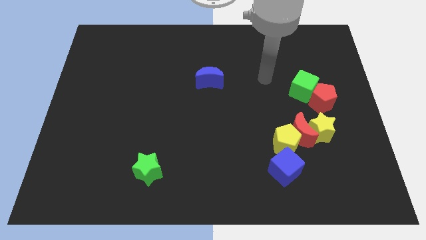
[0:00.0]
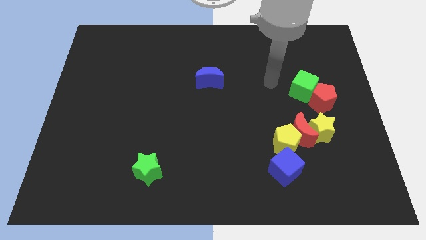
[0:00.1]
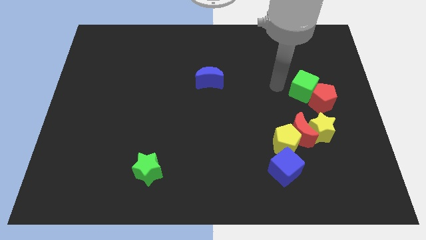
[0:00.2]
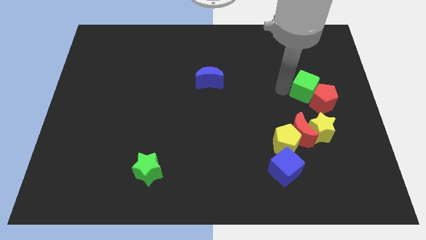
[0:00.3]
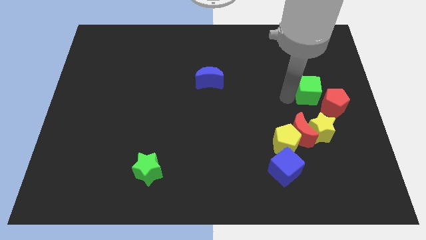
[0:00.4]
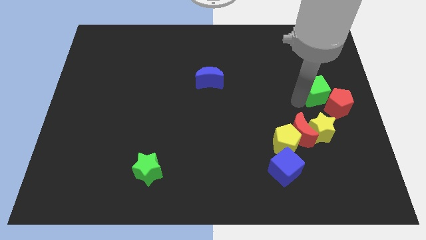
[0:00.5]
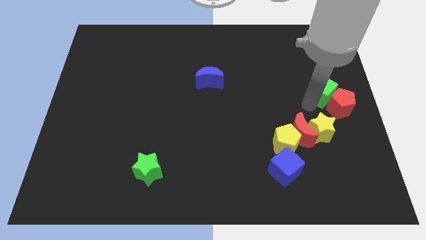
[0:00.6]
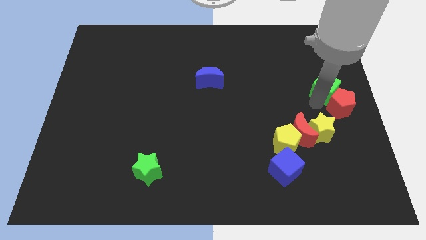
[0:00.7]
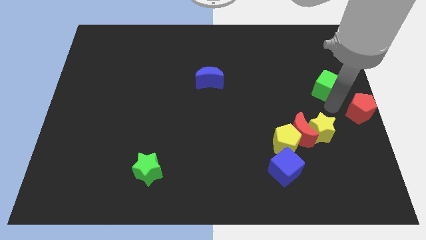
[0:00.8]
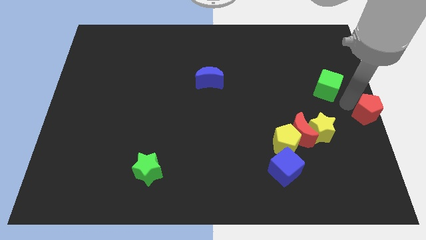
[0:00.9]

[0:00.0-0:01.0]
pull the green cube apart from the red pentagon

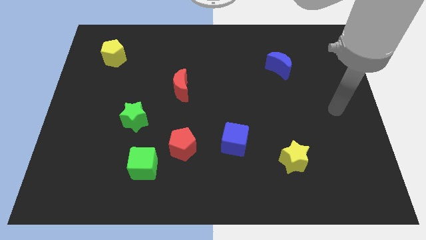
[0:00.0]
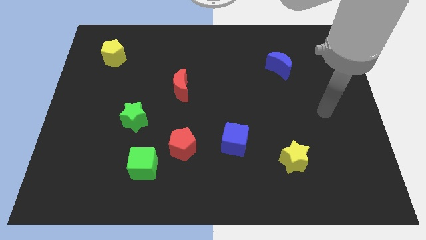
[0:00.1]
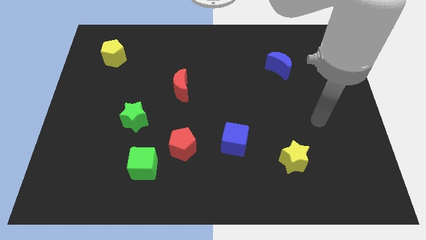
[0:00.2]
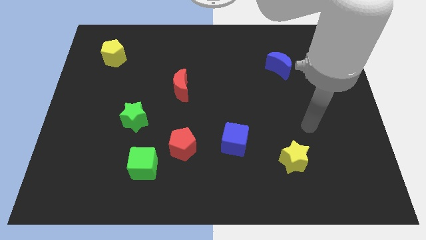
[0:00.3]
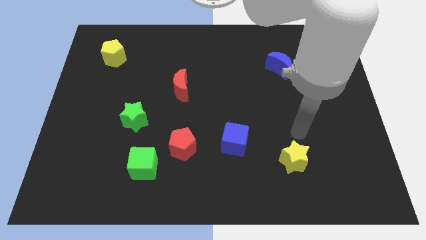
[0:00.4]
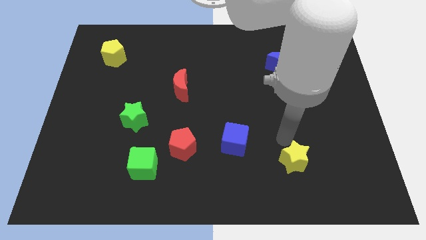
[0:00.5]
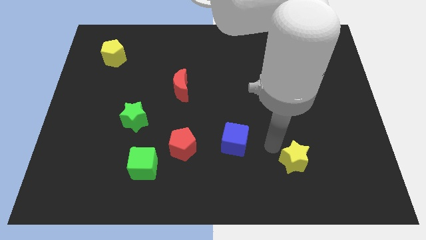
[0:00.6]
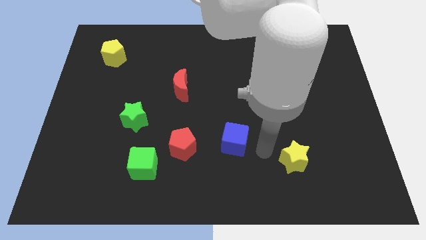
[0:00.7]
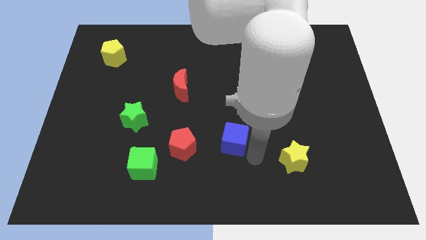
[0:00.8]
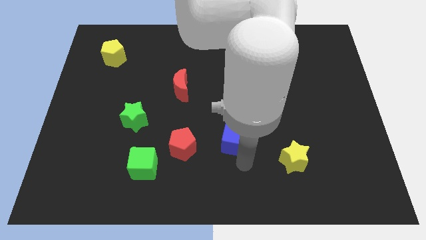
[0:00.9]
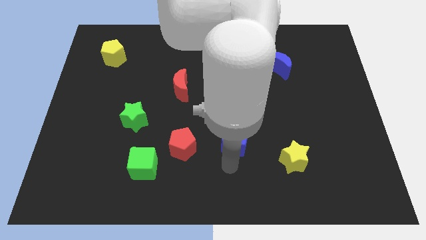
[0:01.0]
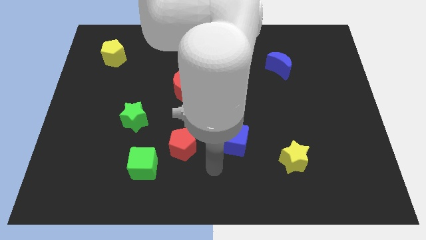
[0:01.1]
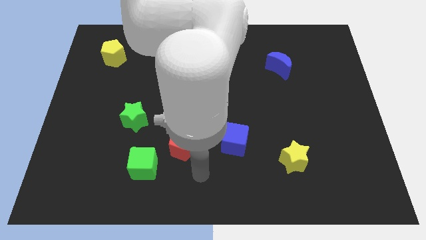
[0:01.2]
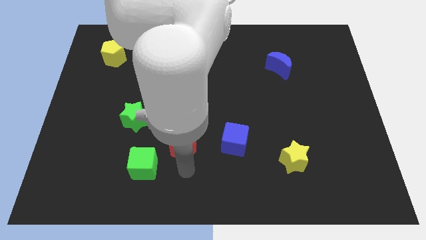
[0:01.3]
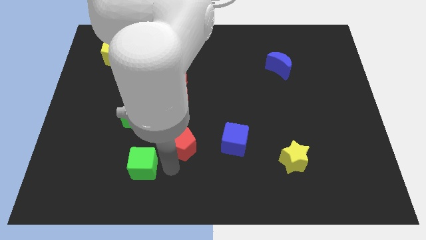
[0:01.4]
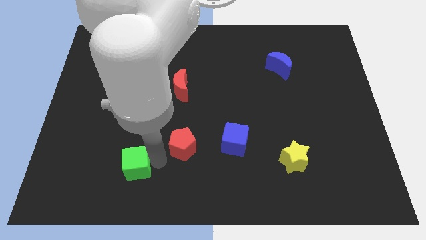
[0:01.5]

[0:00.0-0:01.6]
pull the red pentagon apart from the green cube

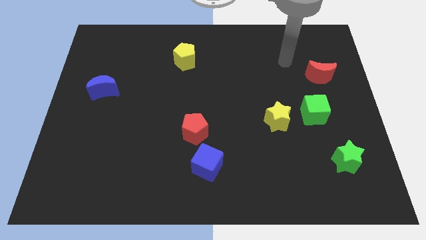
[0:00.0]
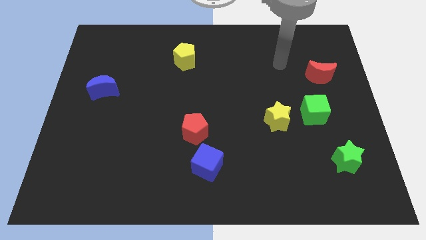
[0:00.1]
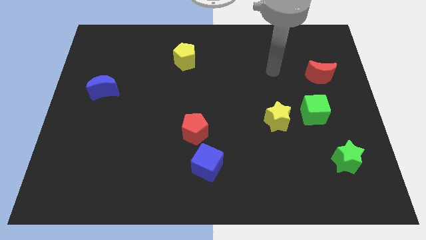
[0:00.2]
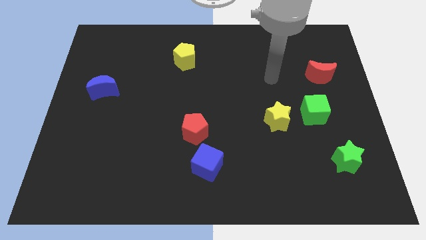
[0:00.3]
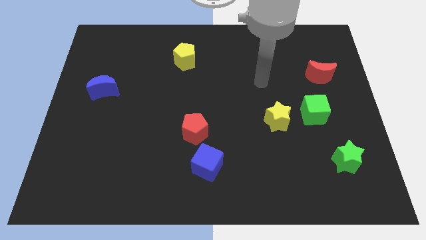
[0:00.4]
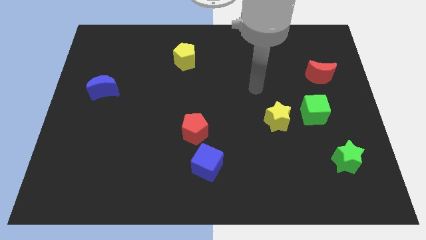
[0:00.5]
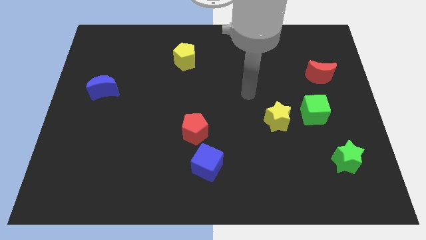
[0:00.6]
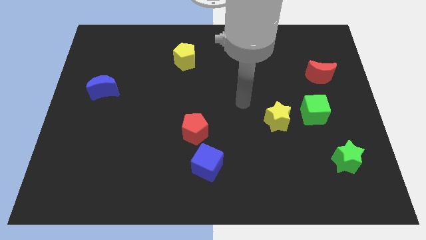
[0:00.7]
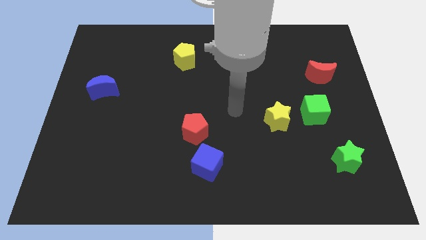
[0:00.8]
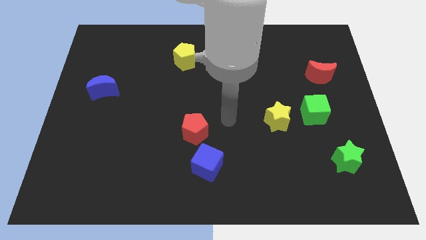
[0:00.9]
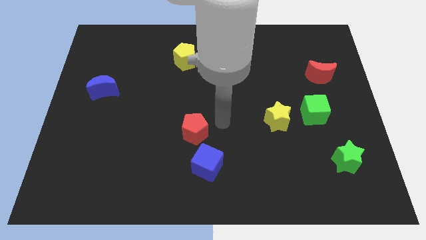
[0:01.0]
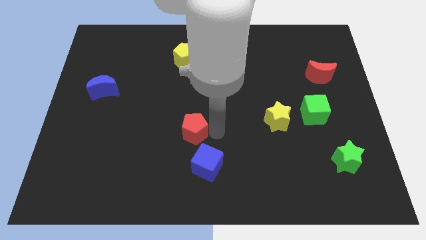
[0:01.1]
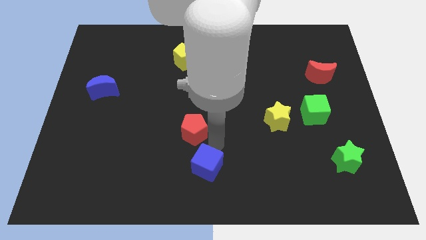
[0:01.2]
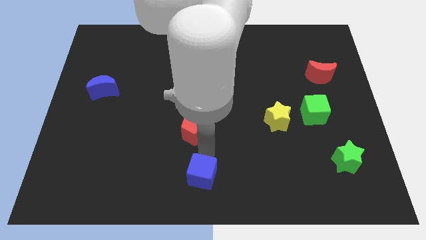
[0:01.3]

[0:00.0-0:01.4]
move the red pentagon away from the blue cube

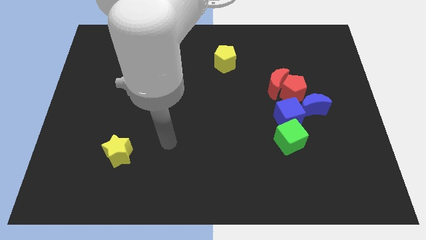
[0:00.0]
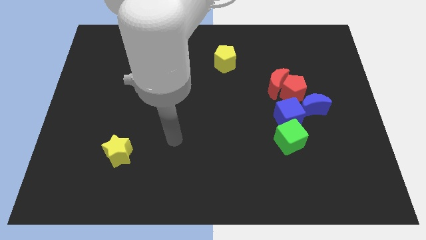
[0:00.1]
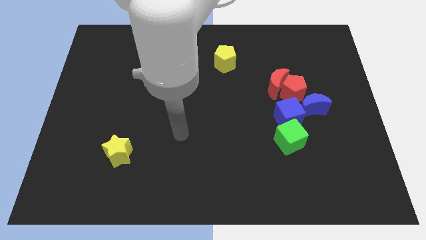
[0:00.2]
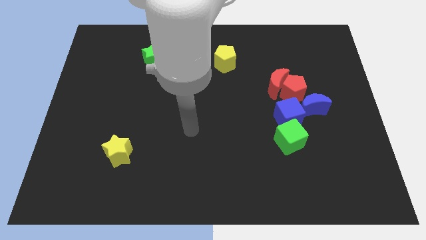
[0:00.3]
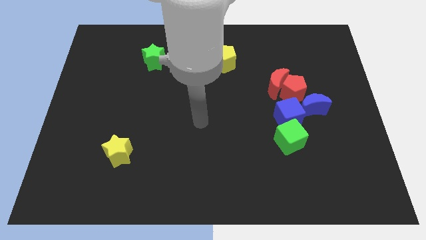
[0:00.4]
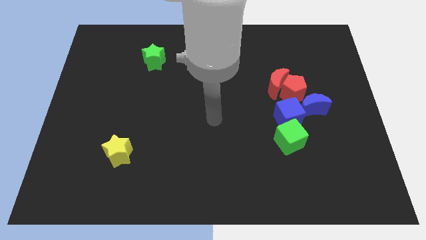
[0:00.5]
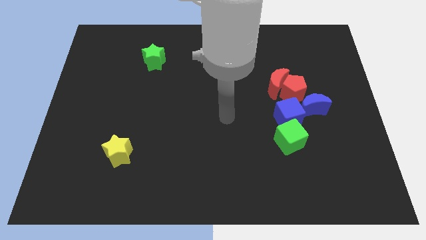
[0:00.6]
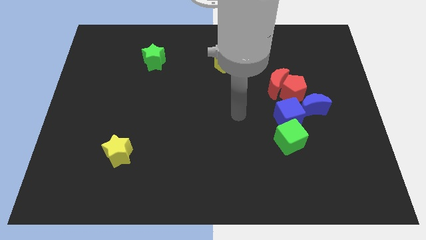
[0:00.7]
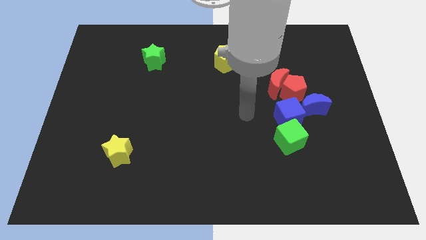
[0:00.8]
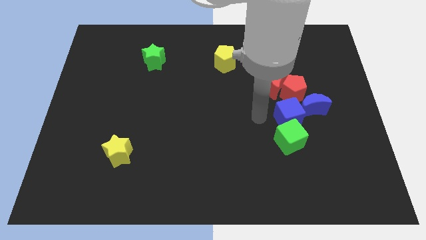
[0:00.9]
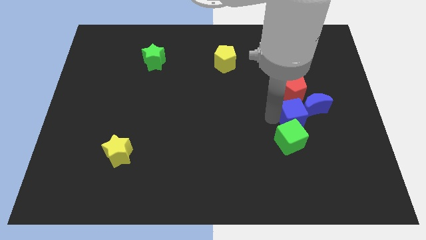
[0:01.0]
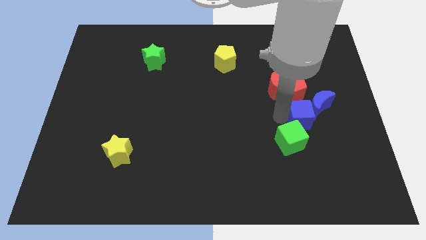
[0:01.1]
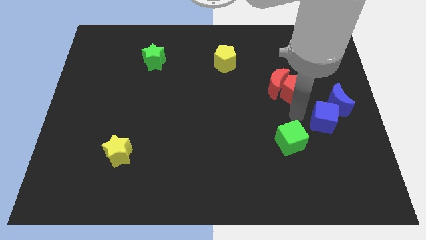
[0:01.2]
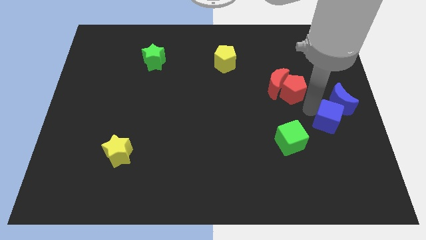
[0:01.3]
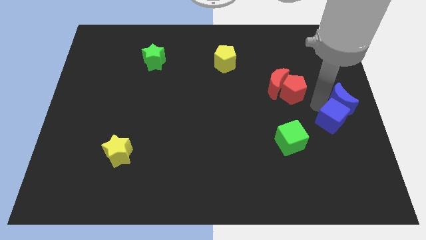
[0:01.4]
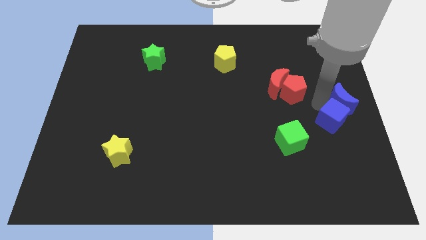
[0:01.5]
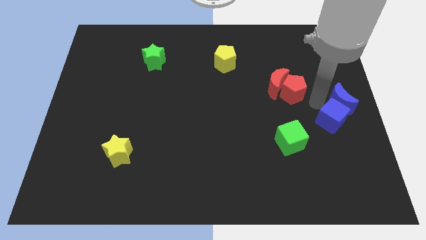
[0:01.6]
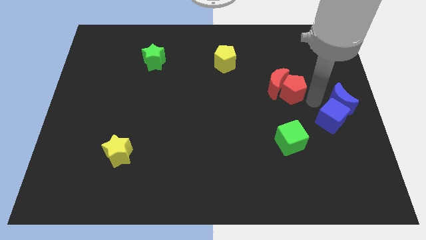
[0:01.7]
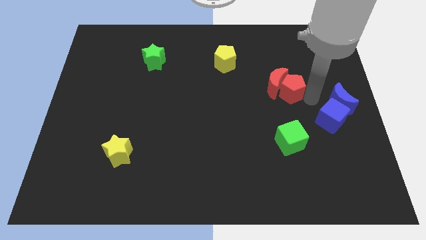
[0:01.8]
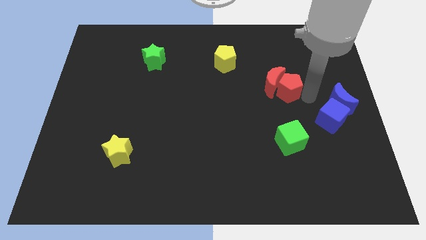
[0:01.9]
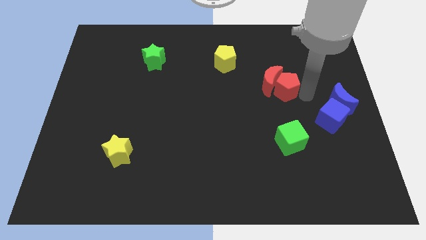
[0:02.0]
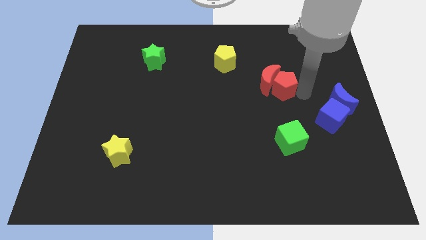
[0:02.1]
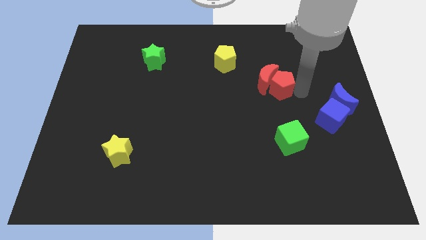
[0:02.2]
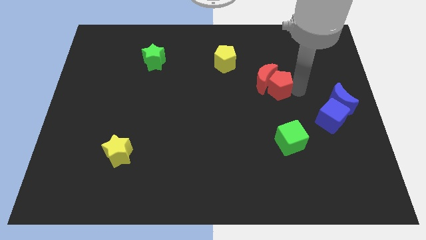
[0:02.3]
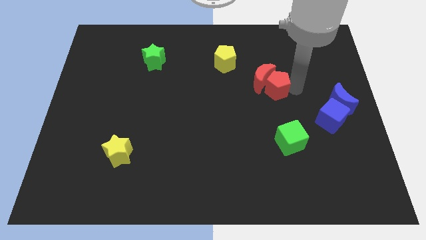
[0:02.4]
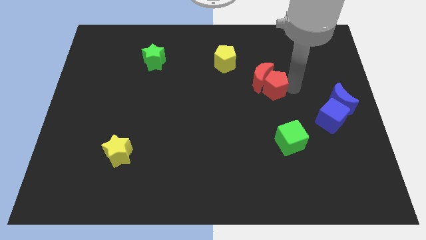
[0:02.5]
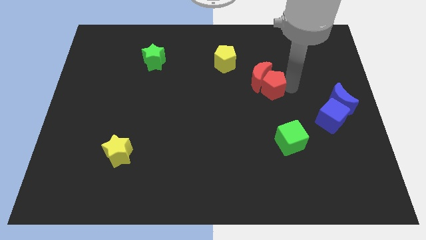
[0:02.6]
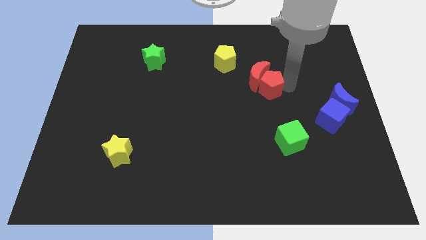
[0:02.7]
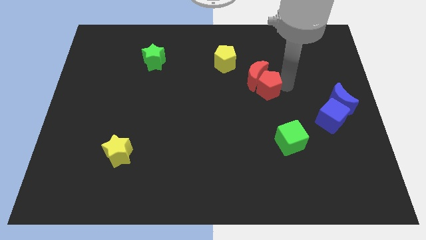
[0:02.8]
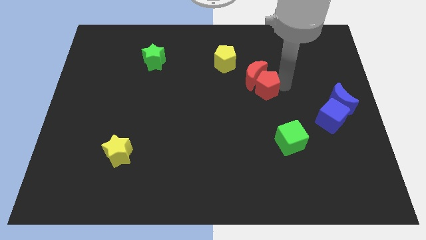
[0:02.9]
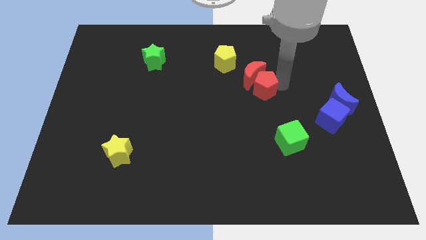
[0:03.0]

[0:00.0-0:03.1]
pull the red pentagon apart from the group of blocks

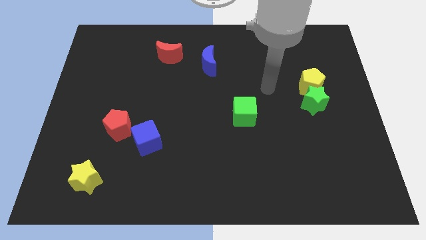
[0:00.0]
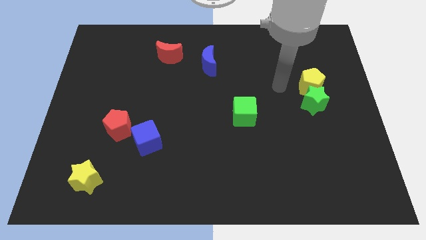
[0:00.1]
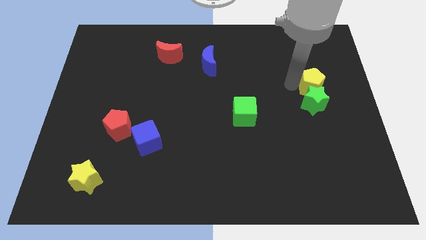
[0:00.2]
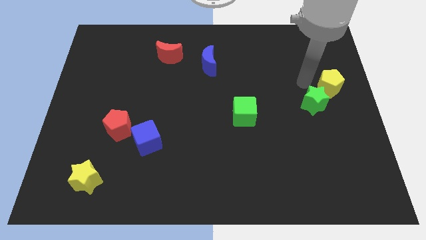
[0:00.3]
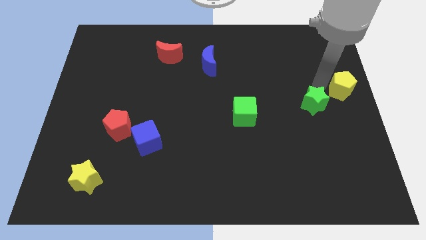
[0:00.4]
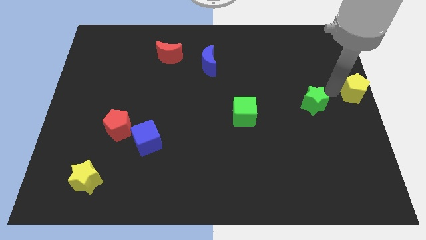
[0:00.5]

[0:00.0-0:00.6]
pull the green star apart from the yellow pentagon

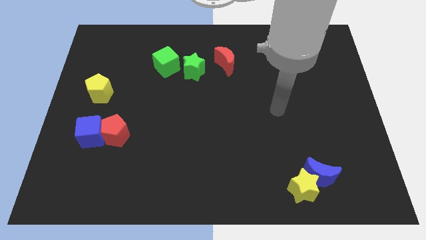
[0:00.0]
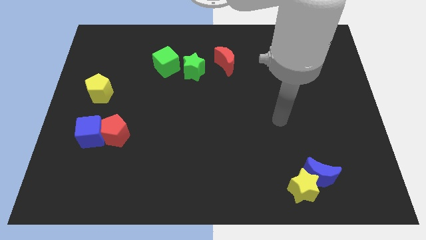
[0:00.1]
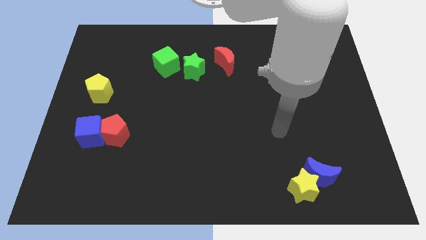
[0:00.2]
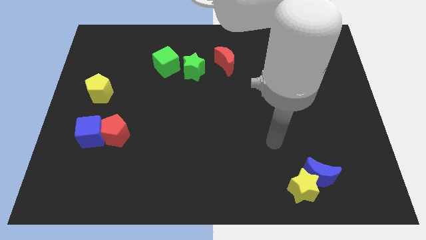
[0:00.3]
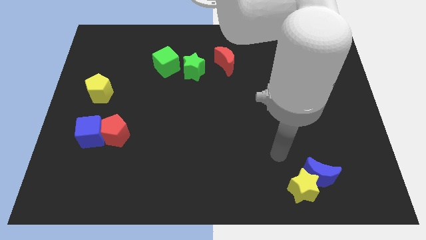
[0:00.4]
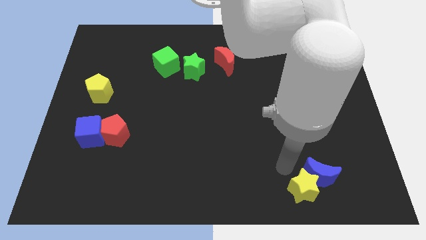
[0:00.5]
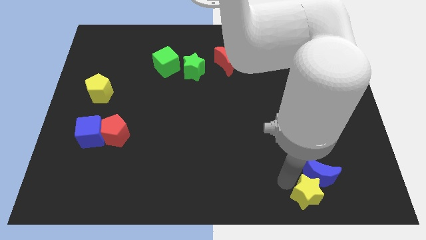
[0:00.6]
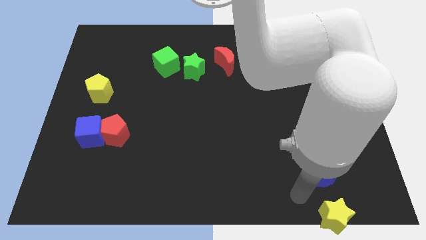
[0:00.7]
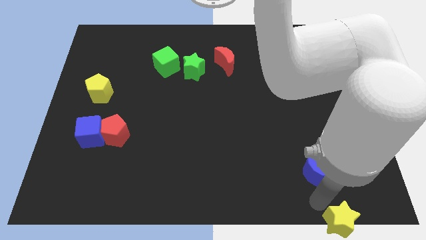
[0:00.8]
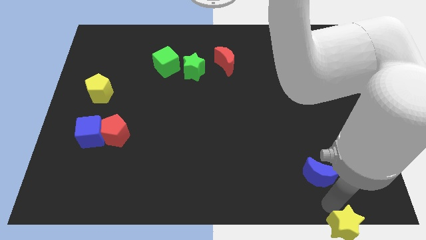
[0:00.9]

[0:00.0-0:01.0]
pull the blue moon apart from the yellow star

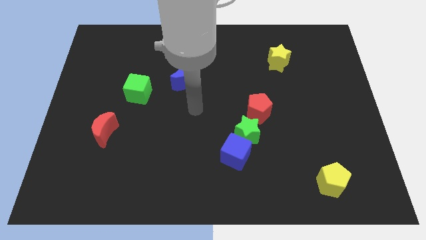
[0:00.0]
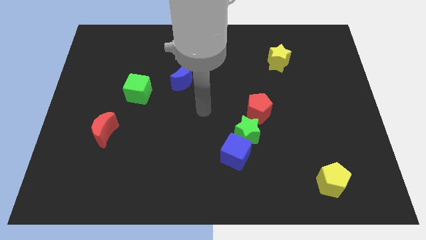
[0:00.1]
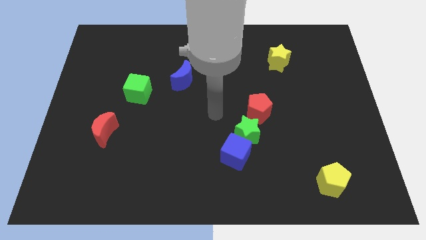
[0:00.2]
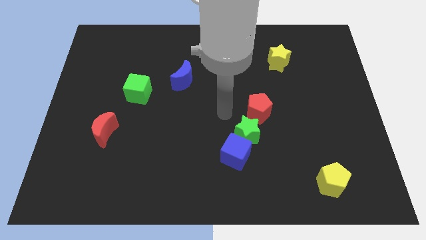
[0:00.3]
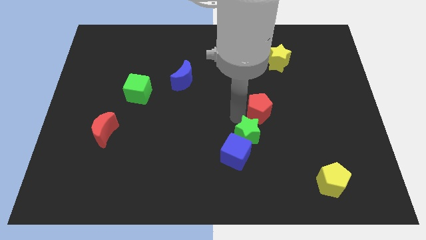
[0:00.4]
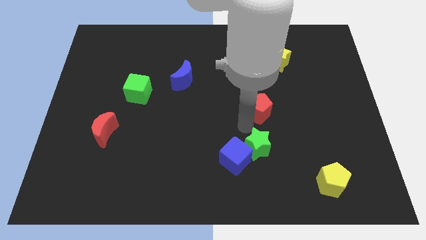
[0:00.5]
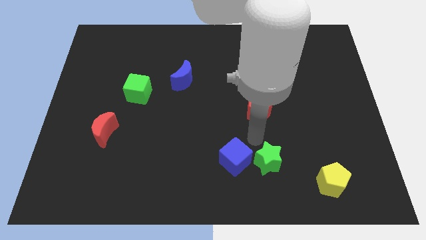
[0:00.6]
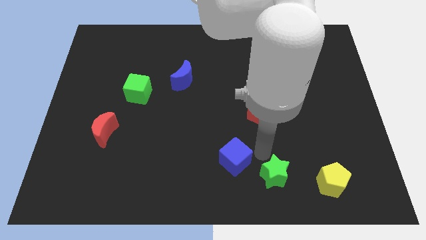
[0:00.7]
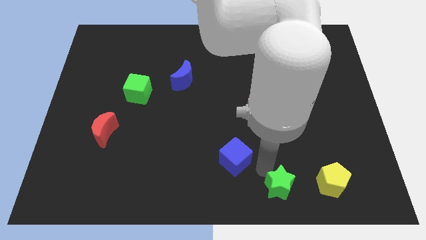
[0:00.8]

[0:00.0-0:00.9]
move the blue cube away from the green star
